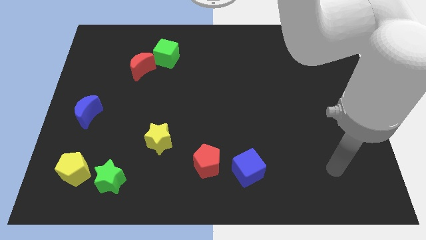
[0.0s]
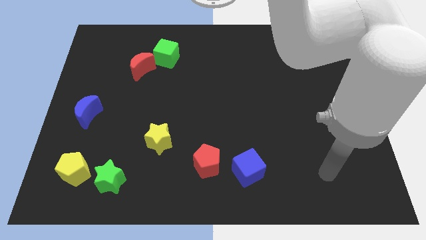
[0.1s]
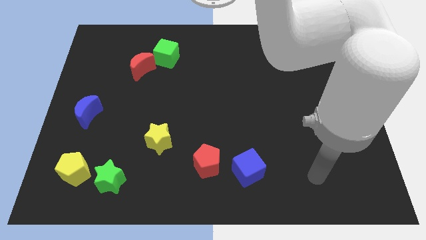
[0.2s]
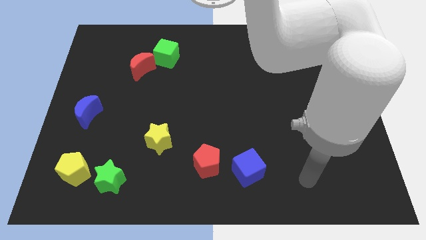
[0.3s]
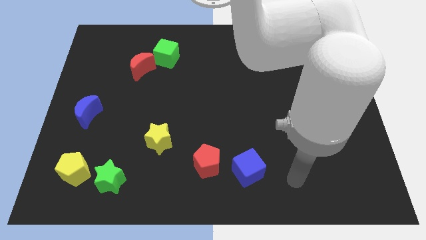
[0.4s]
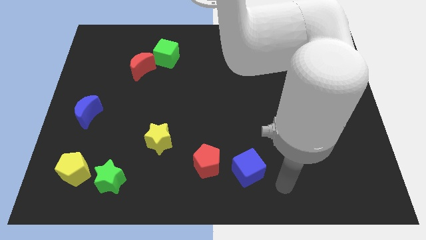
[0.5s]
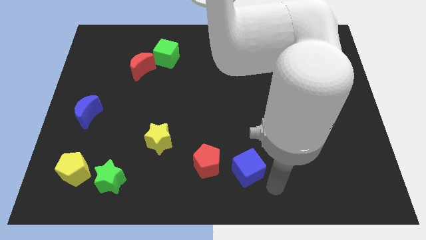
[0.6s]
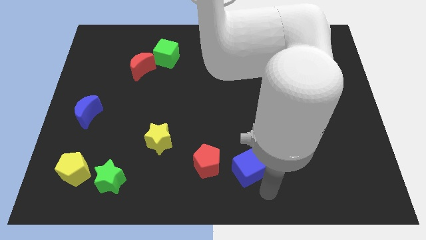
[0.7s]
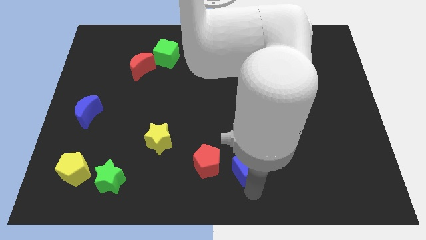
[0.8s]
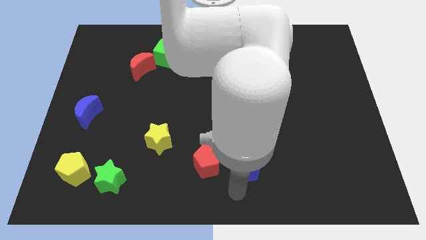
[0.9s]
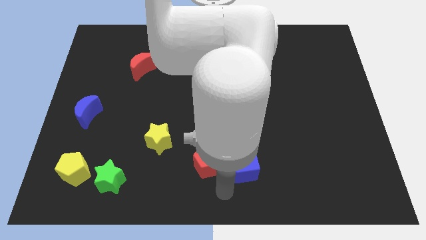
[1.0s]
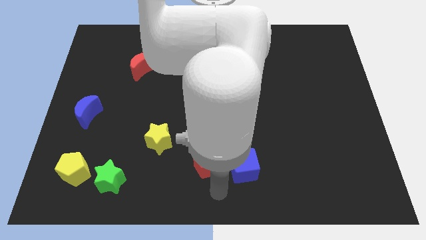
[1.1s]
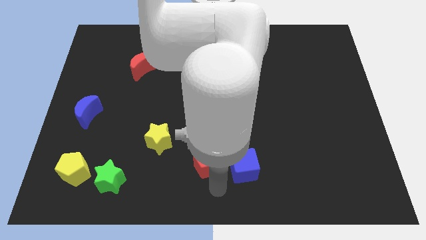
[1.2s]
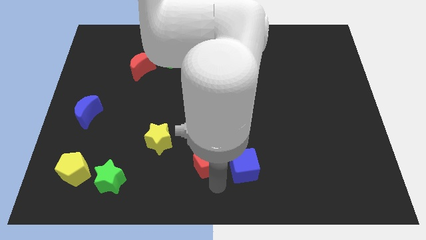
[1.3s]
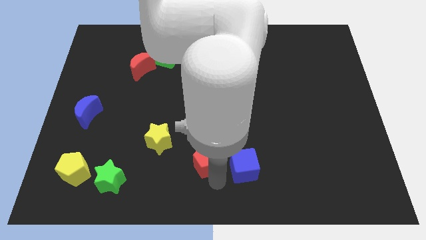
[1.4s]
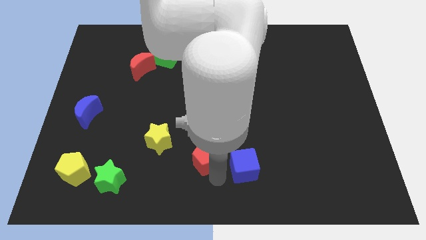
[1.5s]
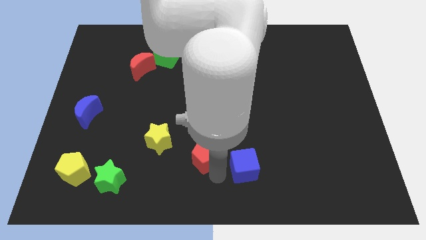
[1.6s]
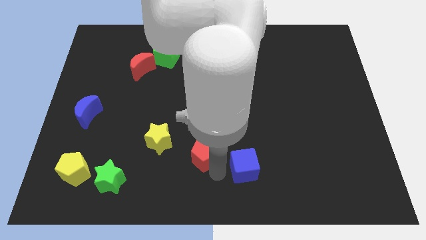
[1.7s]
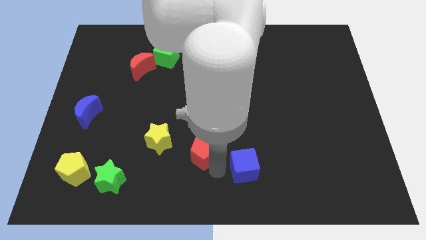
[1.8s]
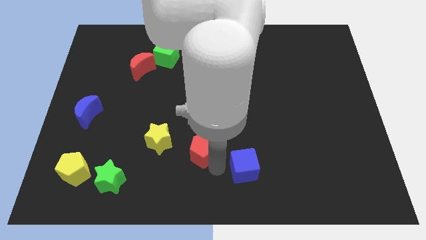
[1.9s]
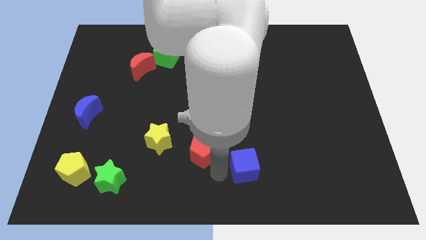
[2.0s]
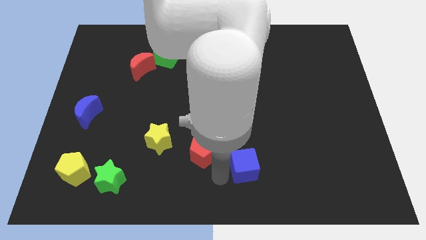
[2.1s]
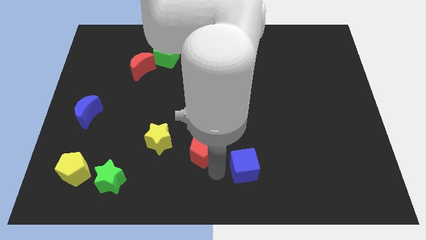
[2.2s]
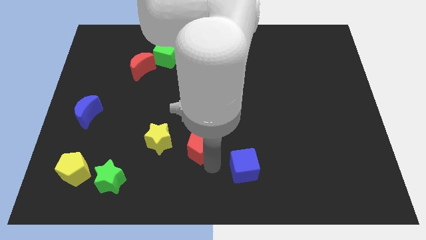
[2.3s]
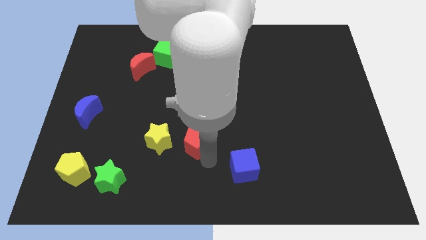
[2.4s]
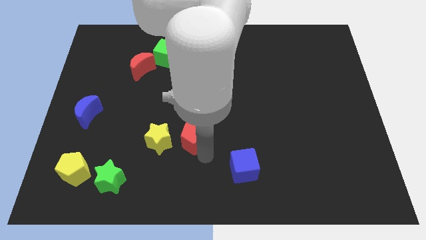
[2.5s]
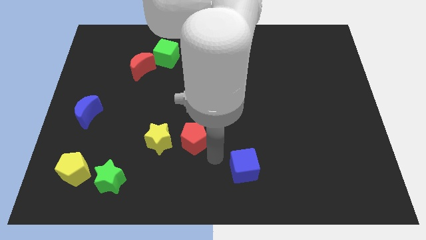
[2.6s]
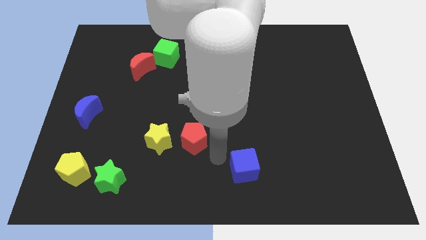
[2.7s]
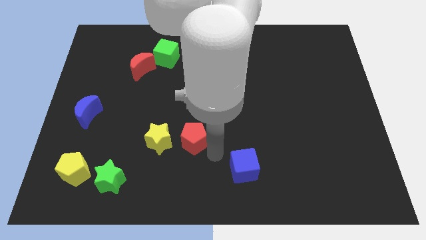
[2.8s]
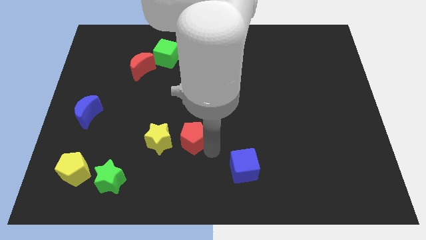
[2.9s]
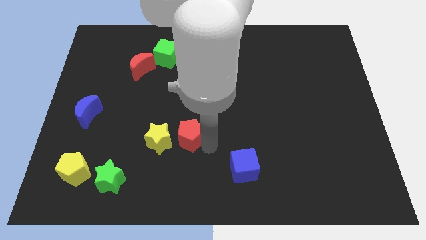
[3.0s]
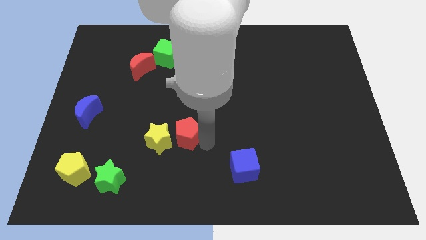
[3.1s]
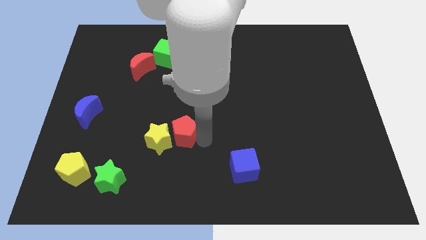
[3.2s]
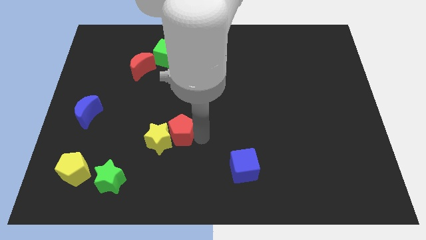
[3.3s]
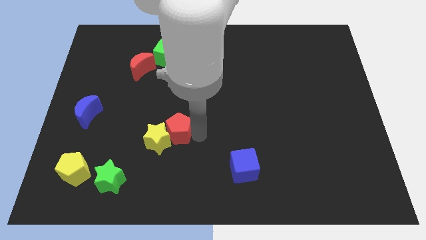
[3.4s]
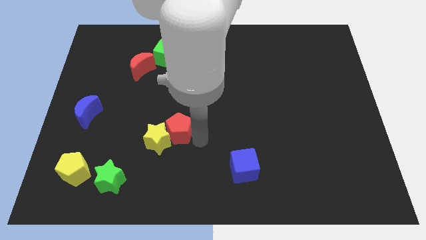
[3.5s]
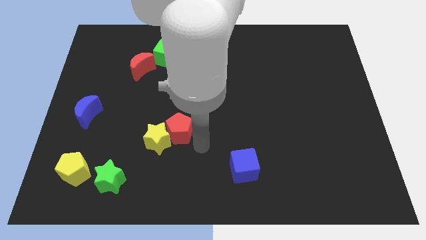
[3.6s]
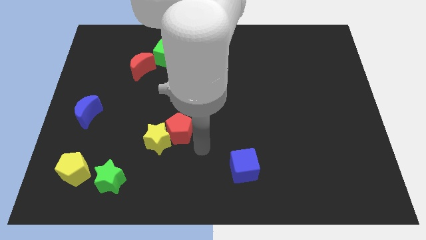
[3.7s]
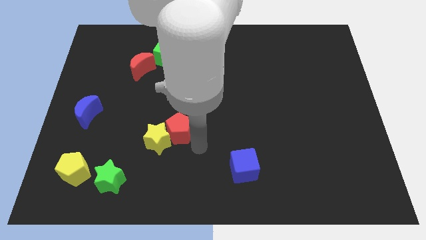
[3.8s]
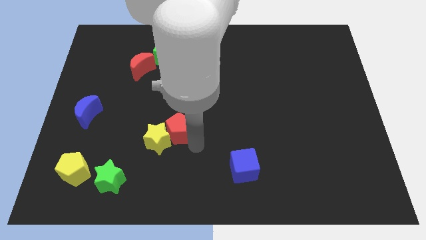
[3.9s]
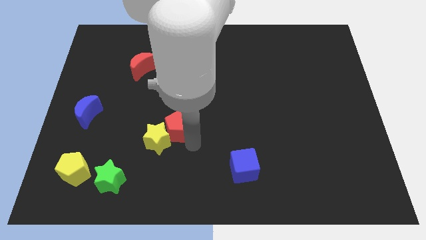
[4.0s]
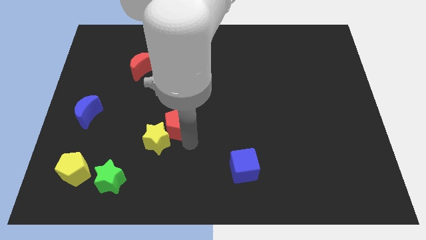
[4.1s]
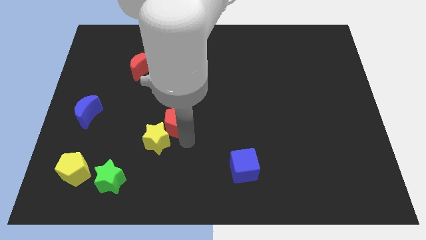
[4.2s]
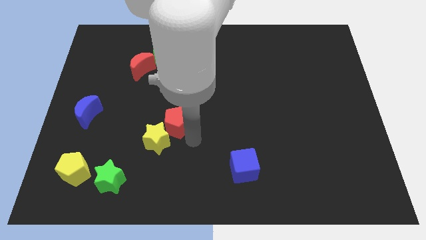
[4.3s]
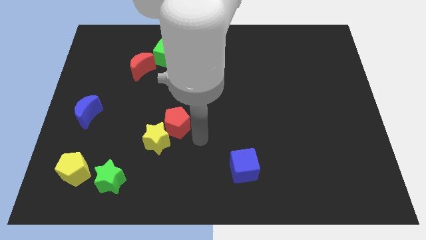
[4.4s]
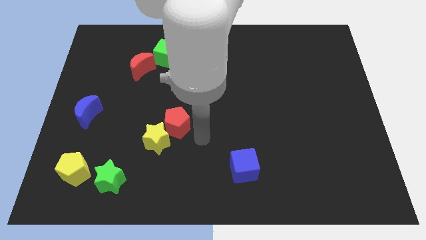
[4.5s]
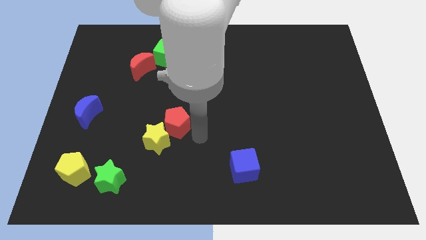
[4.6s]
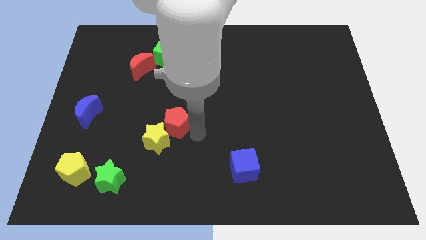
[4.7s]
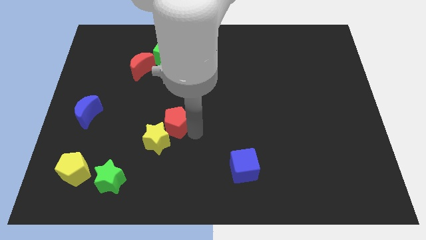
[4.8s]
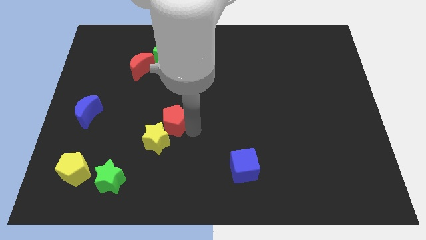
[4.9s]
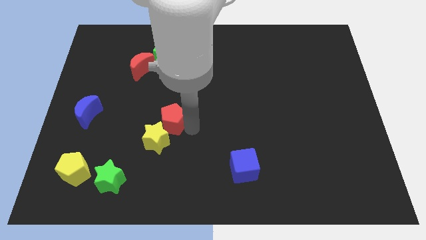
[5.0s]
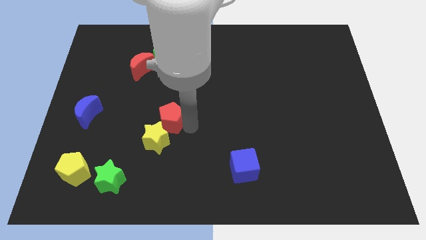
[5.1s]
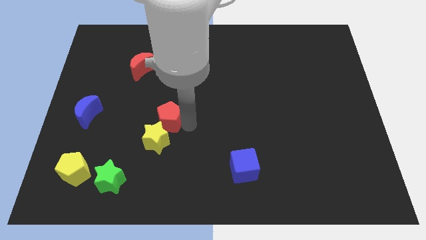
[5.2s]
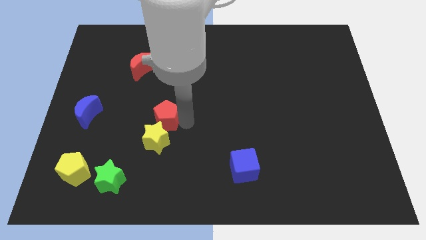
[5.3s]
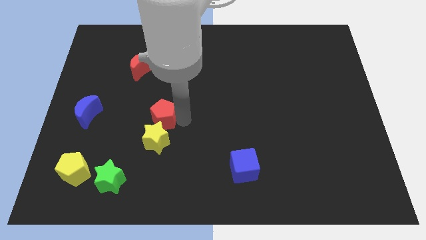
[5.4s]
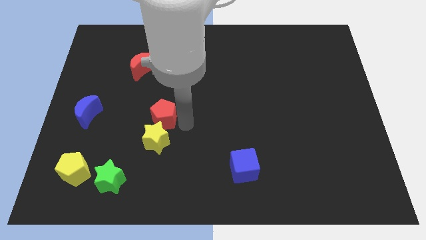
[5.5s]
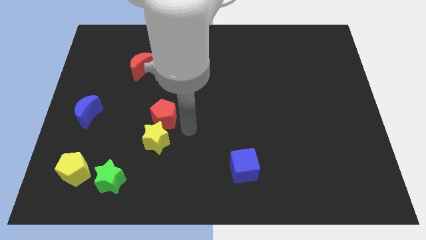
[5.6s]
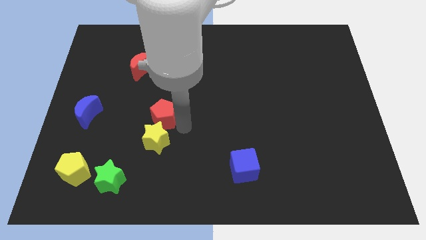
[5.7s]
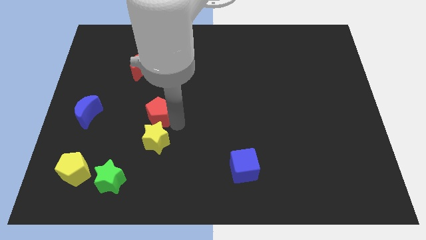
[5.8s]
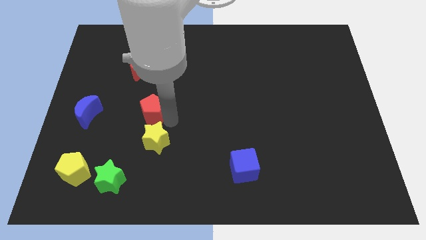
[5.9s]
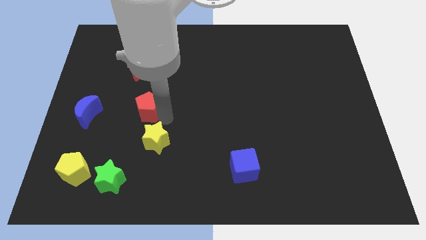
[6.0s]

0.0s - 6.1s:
move the red pentagon diagonally up and to the left

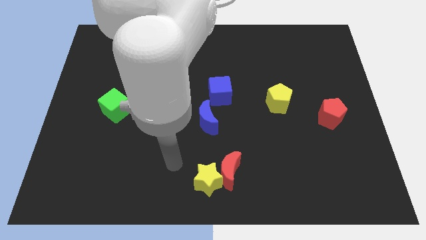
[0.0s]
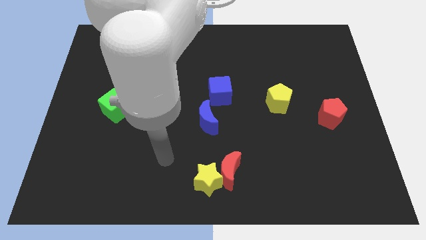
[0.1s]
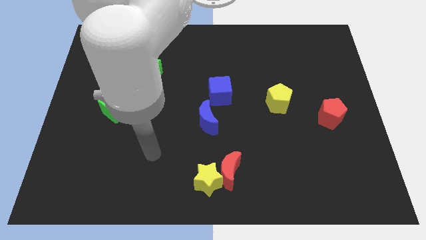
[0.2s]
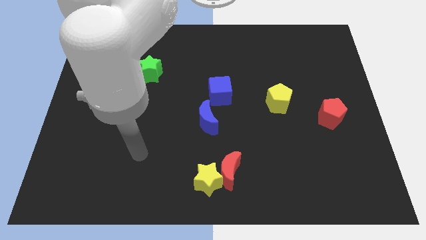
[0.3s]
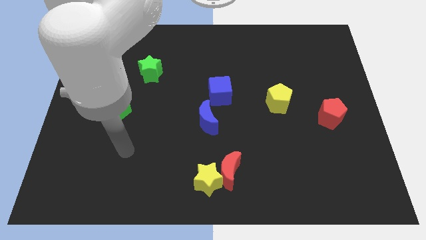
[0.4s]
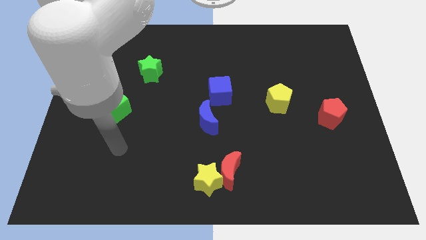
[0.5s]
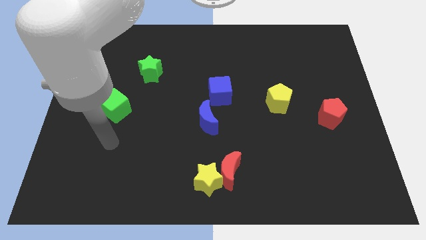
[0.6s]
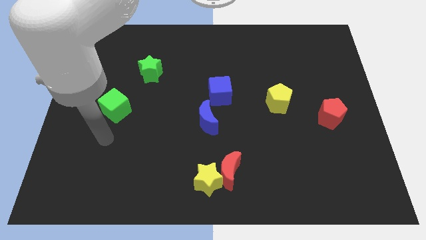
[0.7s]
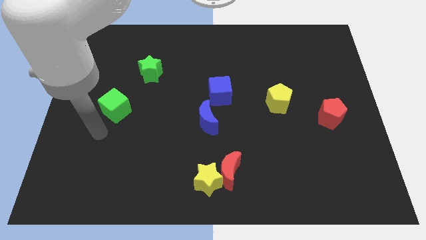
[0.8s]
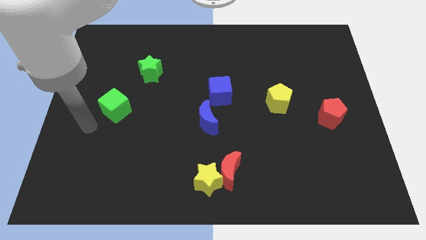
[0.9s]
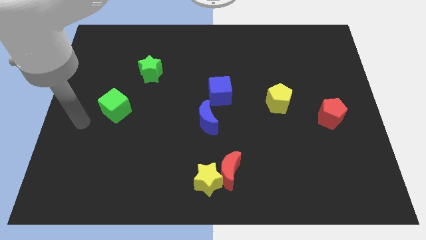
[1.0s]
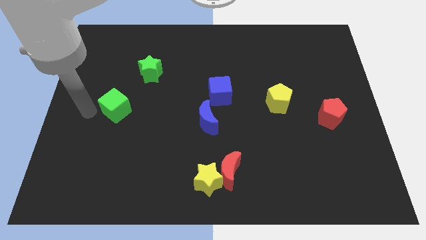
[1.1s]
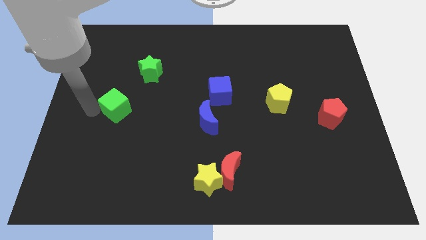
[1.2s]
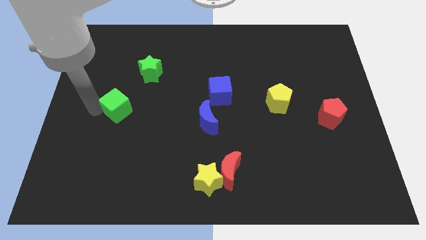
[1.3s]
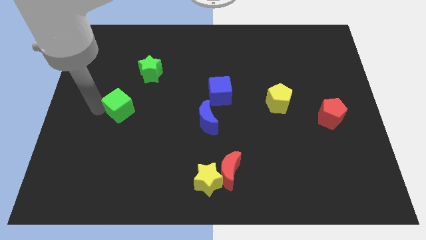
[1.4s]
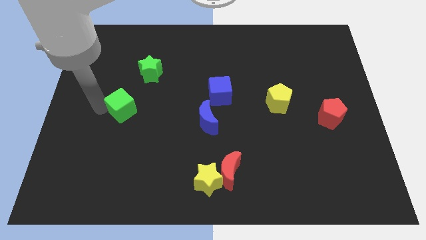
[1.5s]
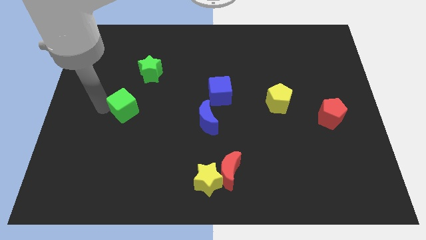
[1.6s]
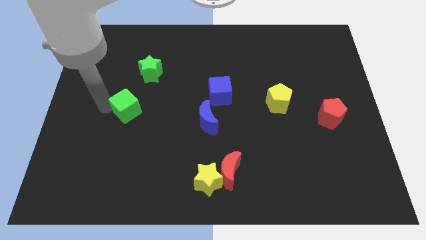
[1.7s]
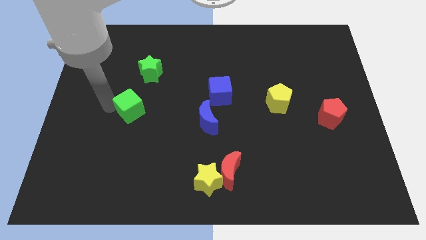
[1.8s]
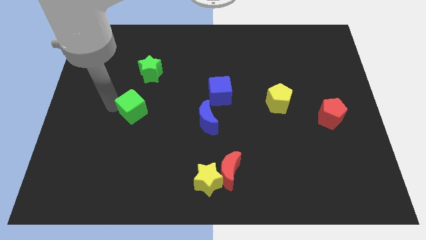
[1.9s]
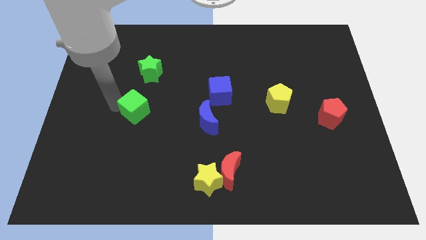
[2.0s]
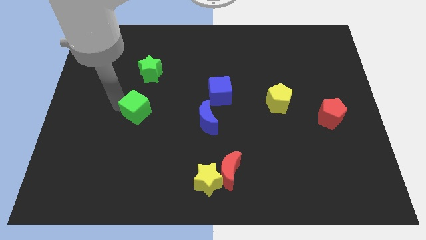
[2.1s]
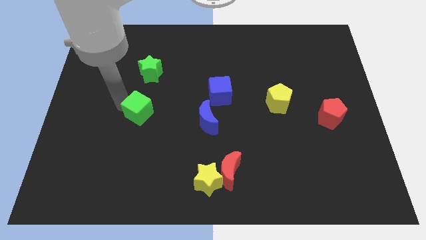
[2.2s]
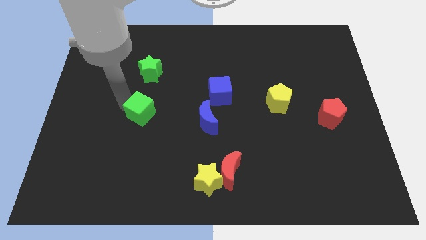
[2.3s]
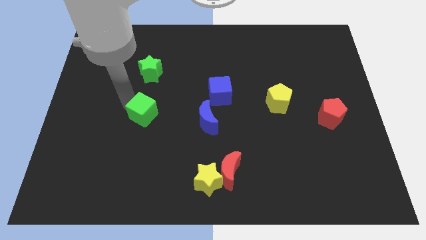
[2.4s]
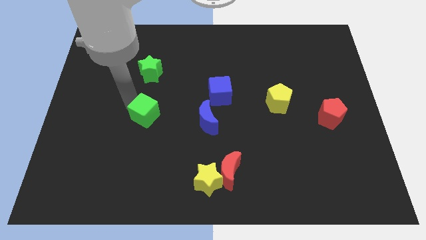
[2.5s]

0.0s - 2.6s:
move the green cube slightly to the right
